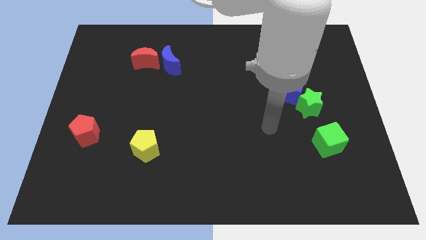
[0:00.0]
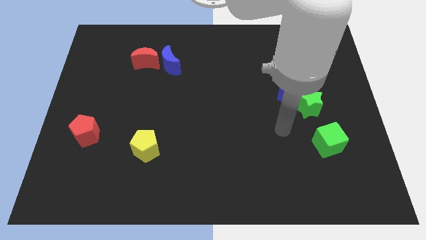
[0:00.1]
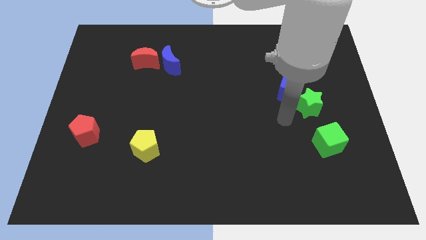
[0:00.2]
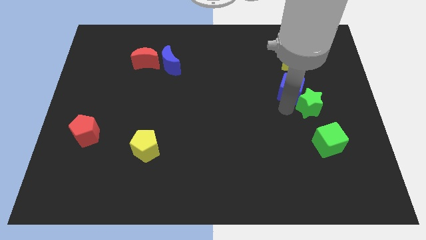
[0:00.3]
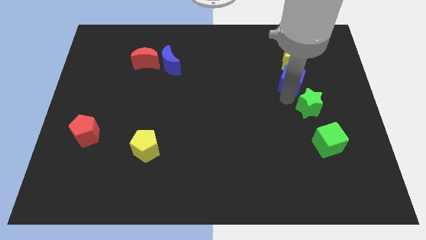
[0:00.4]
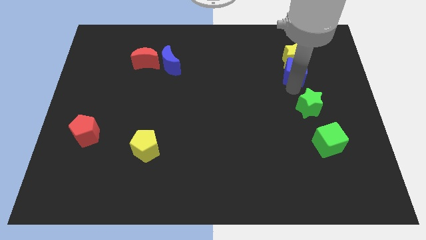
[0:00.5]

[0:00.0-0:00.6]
separate the green star from the blue cube

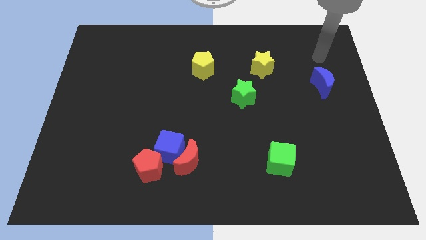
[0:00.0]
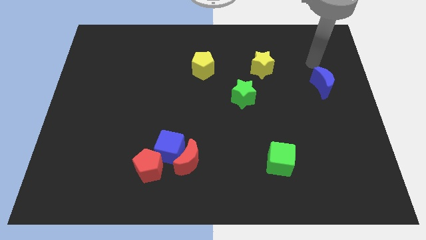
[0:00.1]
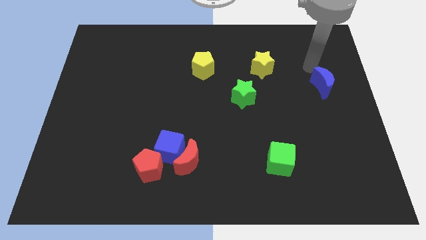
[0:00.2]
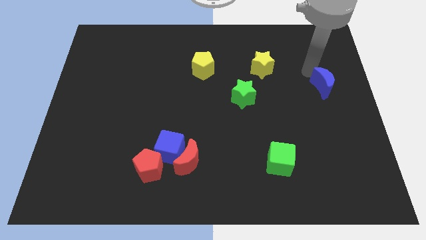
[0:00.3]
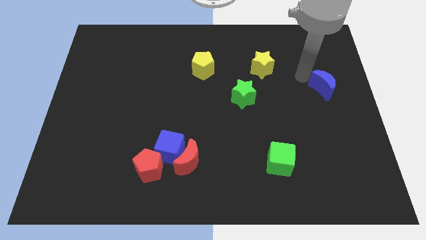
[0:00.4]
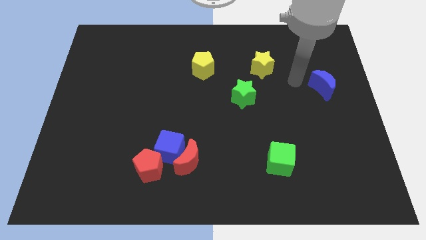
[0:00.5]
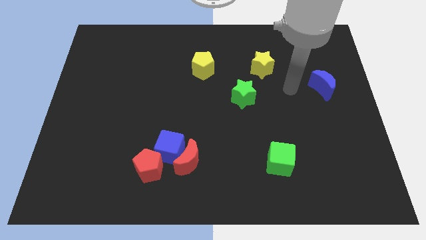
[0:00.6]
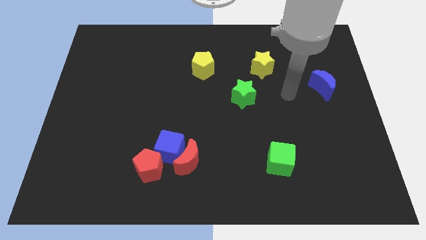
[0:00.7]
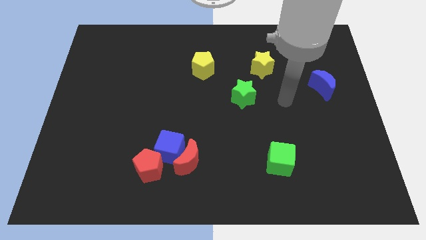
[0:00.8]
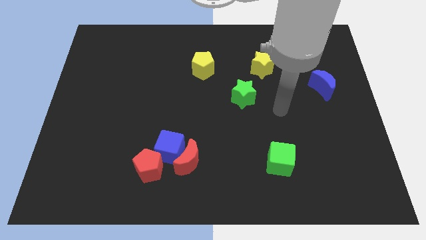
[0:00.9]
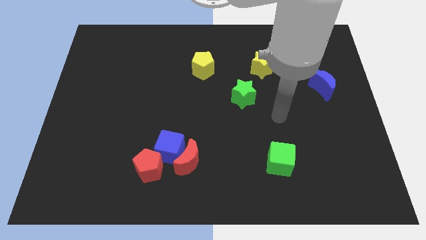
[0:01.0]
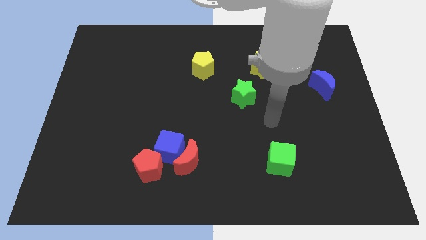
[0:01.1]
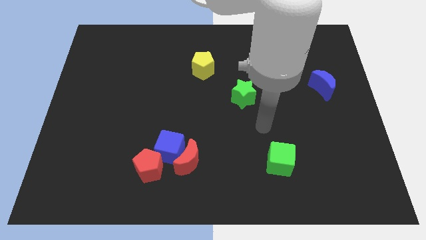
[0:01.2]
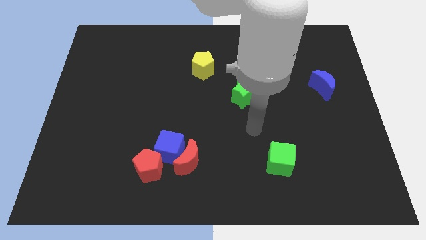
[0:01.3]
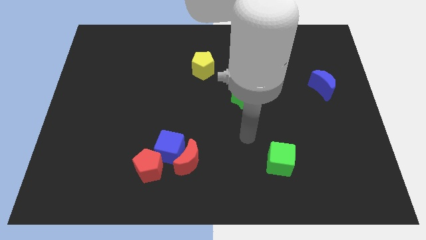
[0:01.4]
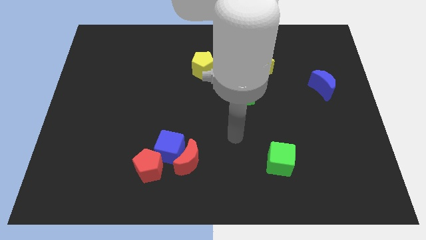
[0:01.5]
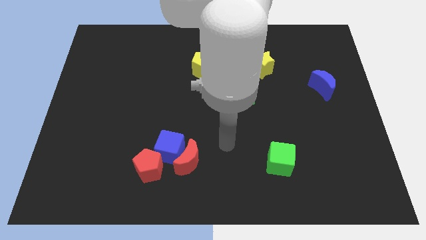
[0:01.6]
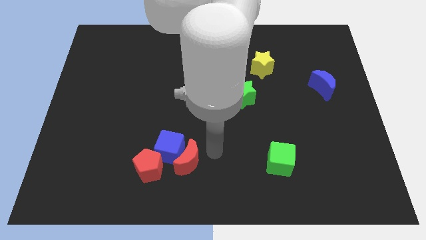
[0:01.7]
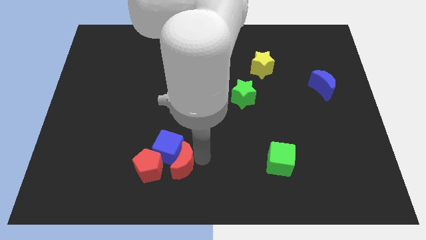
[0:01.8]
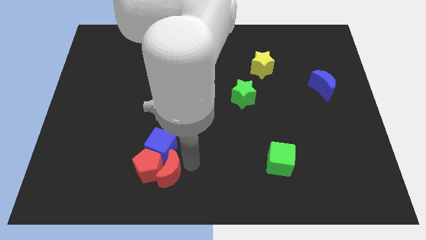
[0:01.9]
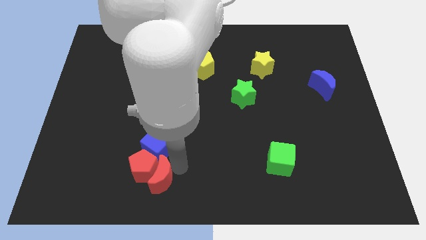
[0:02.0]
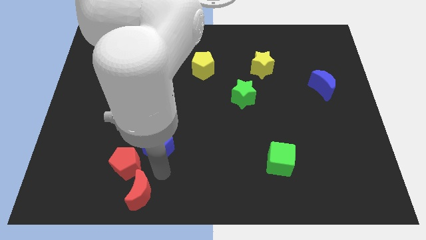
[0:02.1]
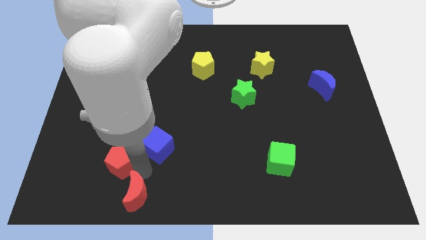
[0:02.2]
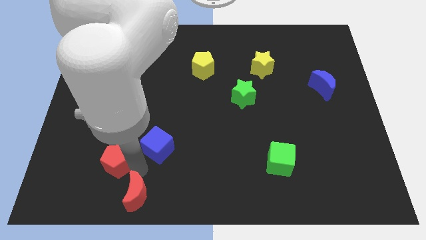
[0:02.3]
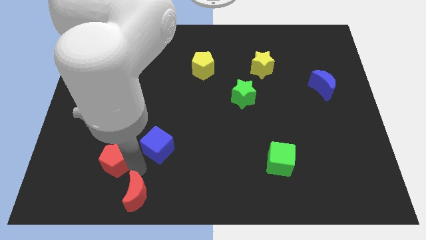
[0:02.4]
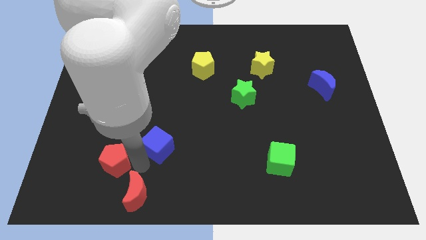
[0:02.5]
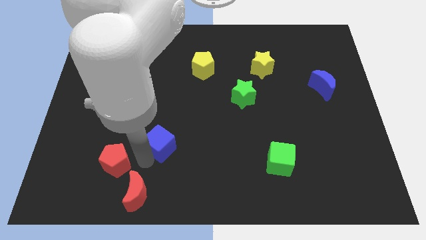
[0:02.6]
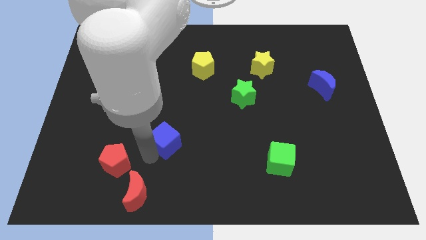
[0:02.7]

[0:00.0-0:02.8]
move the blue cube away from the red moon and red pentagon

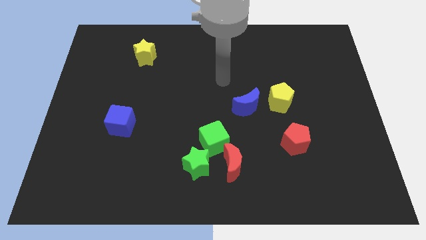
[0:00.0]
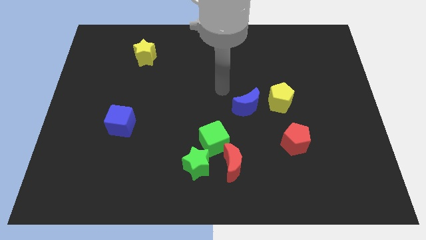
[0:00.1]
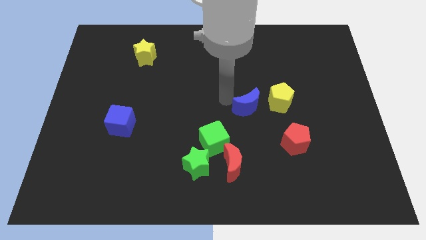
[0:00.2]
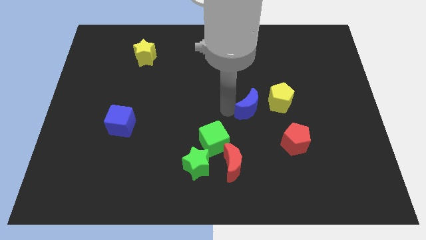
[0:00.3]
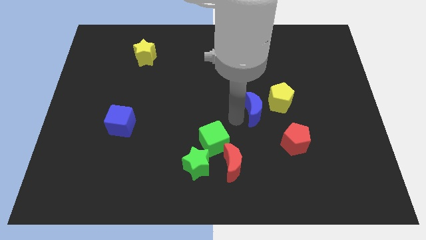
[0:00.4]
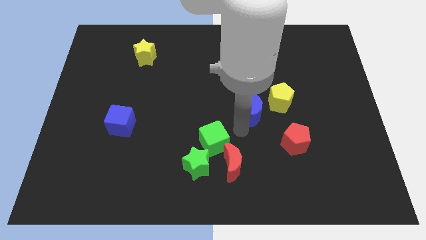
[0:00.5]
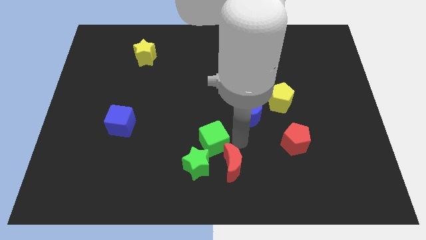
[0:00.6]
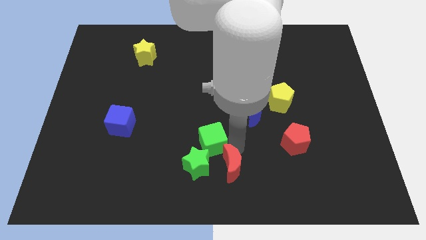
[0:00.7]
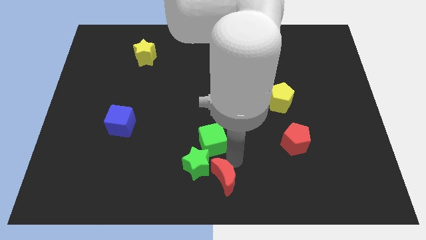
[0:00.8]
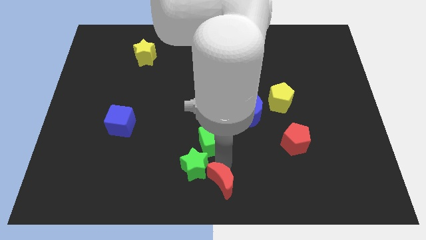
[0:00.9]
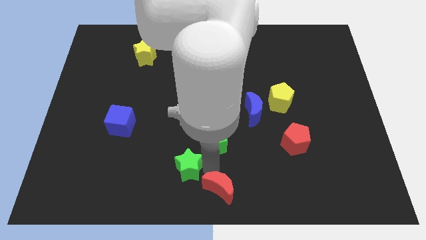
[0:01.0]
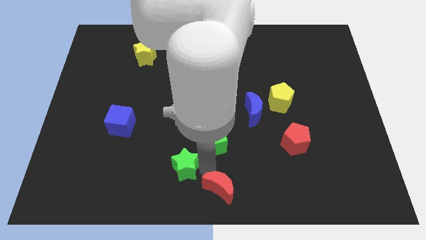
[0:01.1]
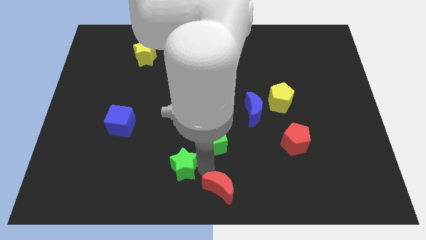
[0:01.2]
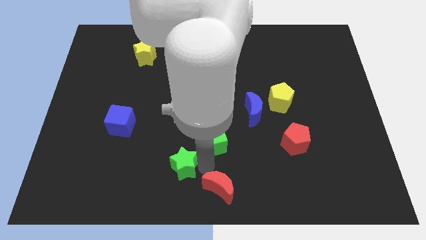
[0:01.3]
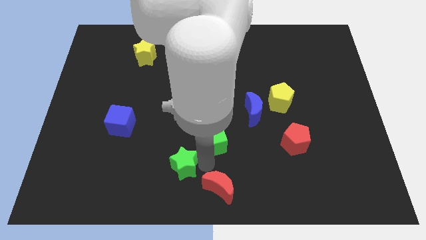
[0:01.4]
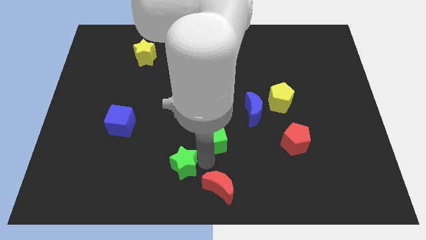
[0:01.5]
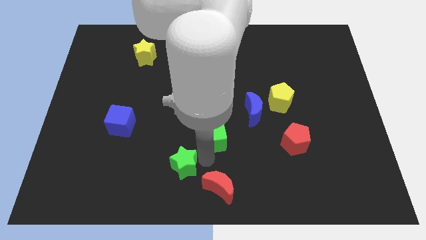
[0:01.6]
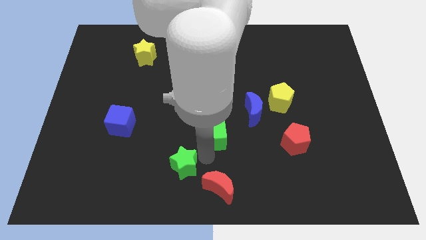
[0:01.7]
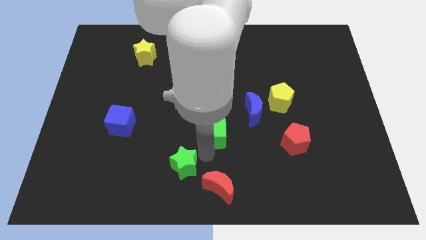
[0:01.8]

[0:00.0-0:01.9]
separate the green cube from the green star and red moon

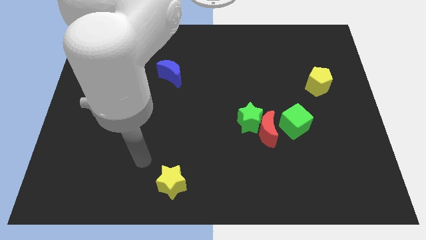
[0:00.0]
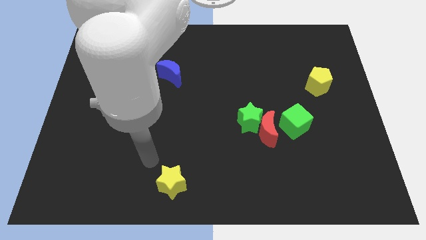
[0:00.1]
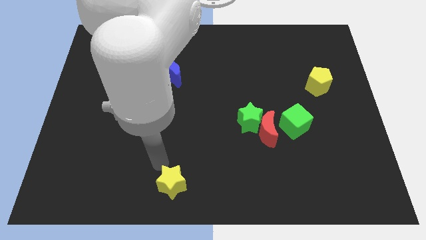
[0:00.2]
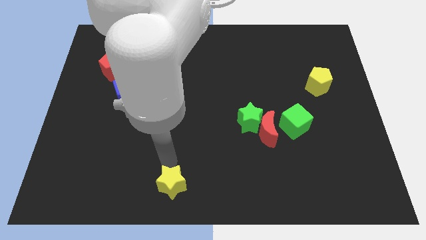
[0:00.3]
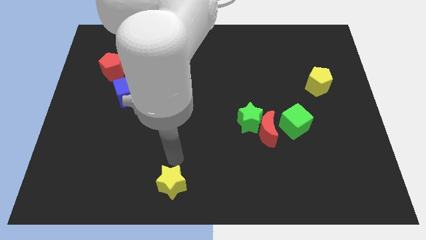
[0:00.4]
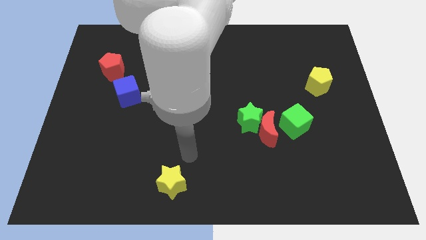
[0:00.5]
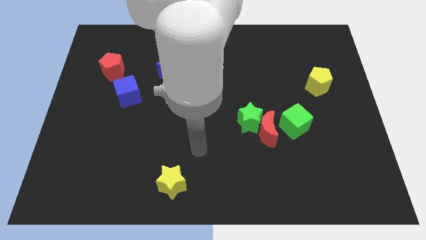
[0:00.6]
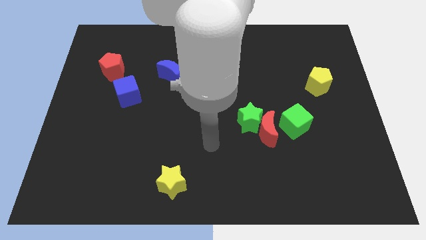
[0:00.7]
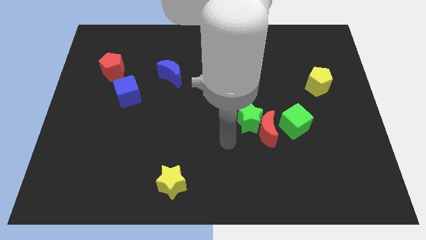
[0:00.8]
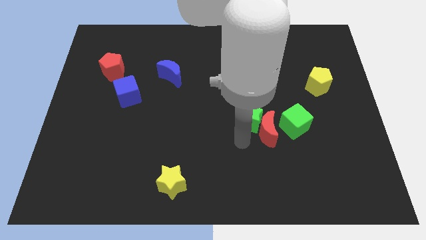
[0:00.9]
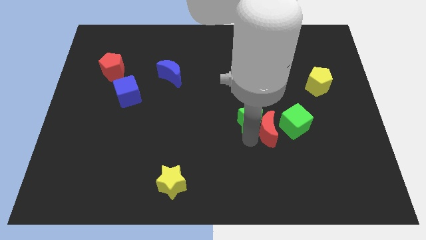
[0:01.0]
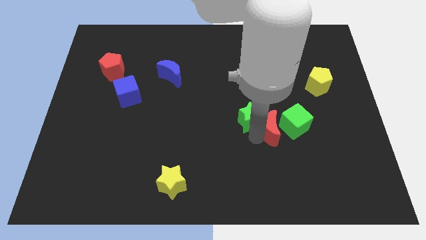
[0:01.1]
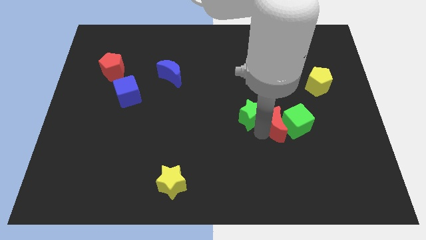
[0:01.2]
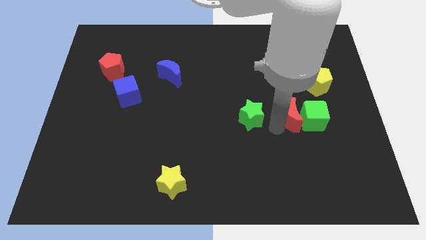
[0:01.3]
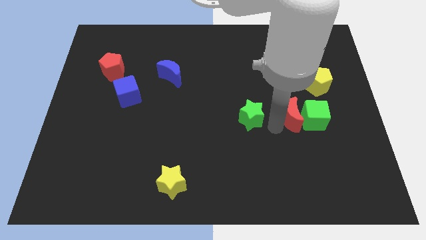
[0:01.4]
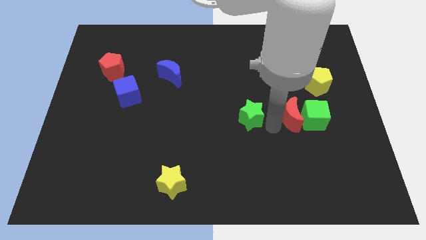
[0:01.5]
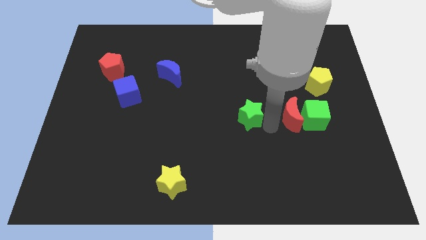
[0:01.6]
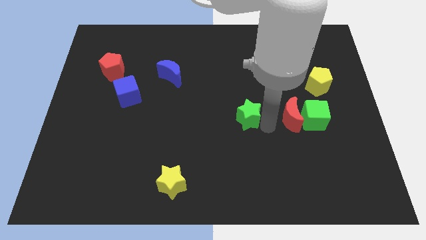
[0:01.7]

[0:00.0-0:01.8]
move the green star away from the red moon

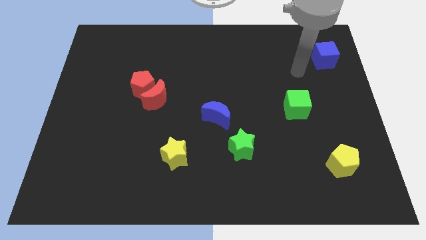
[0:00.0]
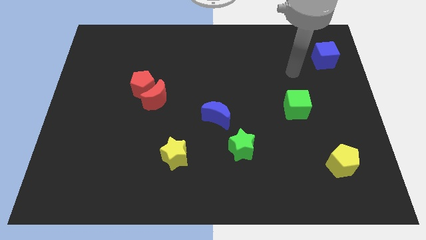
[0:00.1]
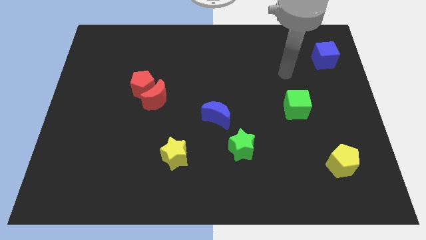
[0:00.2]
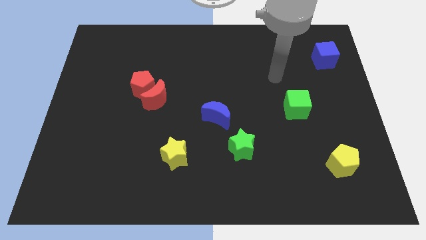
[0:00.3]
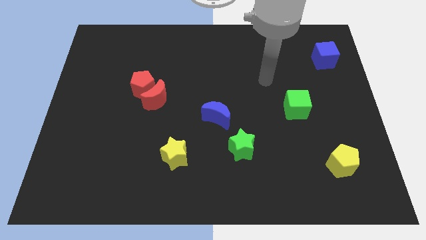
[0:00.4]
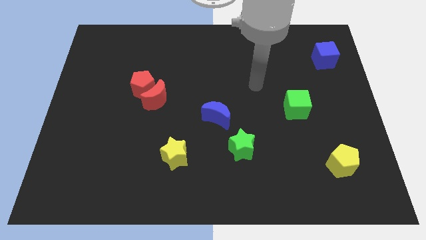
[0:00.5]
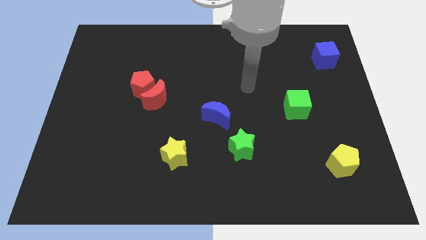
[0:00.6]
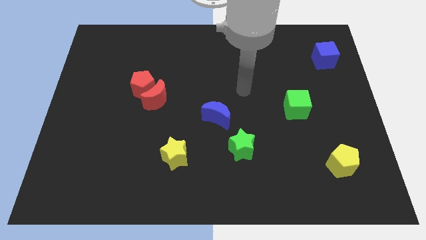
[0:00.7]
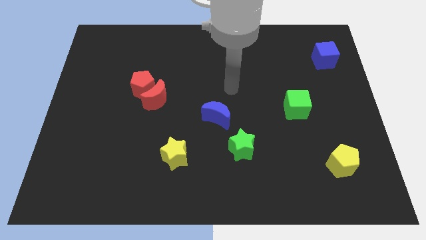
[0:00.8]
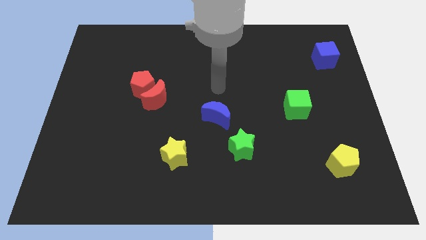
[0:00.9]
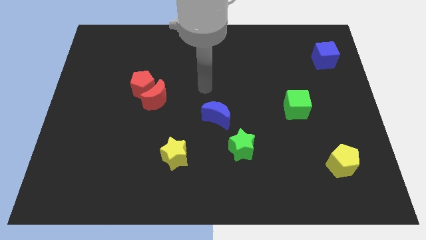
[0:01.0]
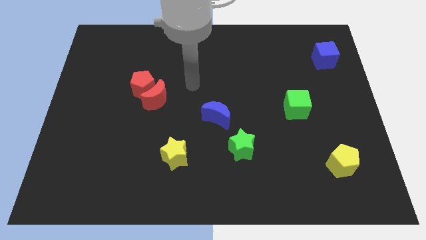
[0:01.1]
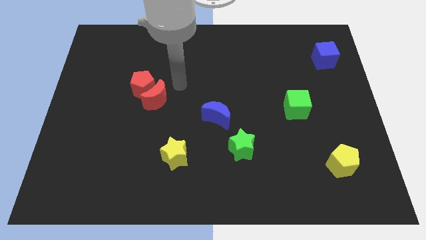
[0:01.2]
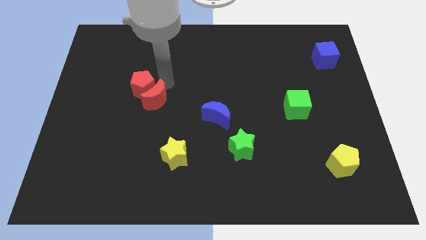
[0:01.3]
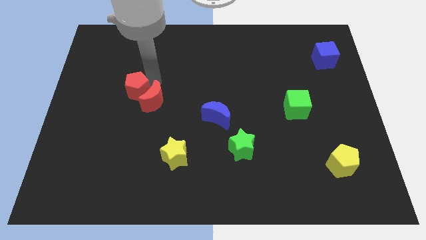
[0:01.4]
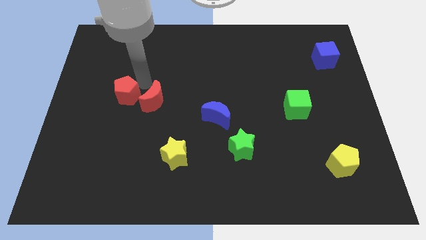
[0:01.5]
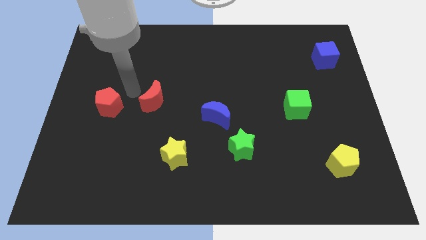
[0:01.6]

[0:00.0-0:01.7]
separate the red moon from the red pentagon

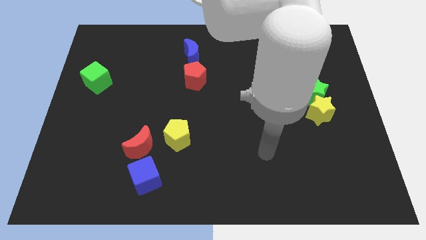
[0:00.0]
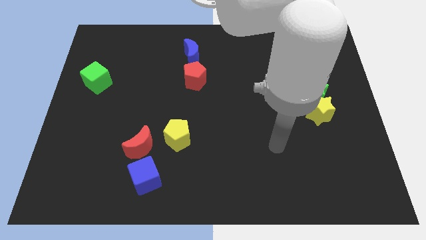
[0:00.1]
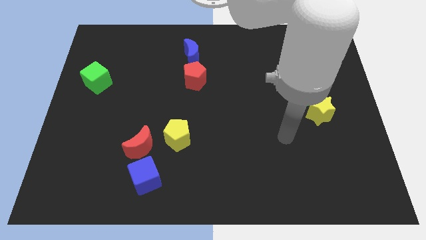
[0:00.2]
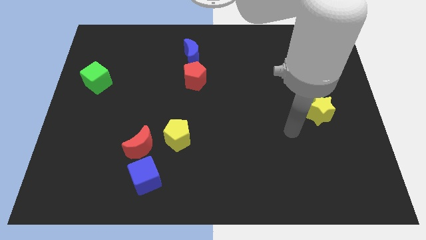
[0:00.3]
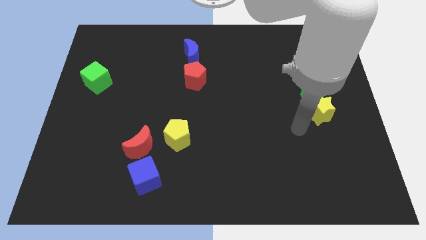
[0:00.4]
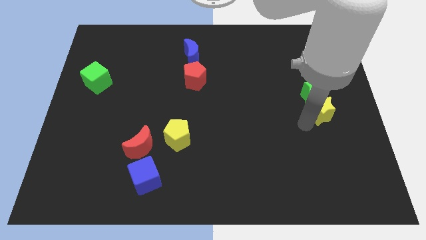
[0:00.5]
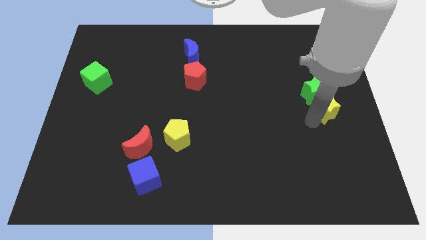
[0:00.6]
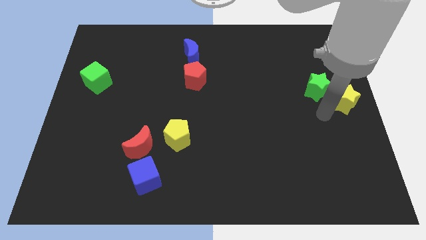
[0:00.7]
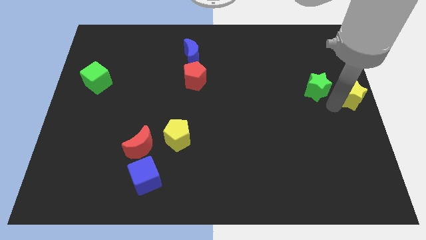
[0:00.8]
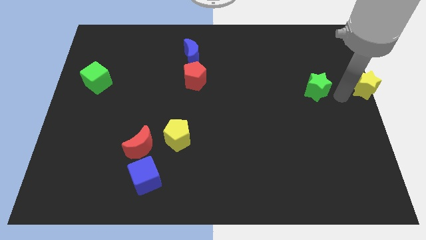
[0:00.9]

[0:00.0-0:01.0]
move the green star away from the yellow star
